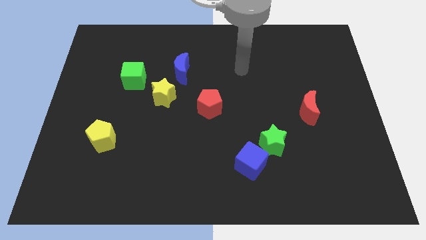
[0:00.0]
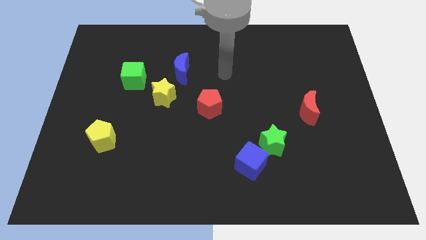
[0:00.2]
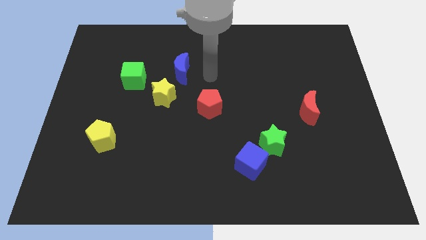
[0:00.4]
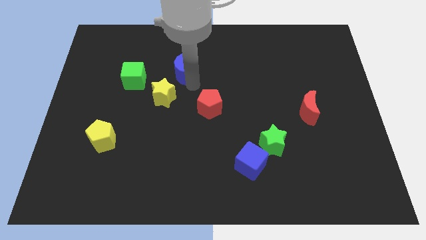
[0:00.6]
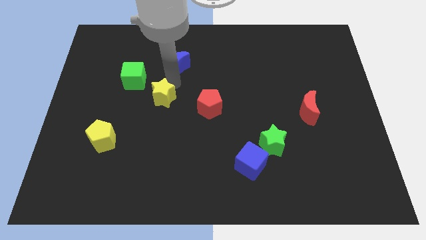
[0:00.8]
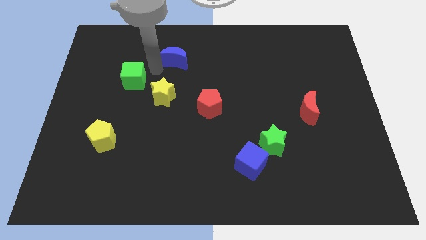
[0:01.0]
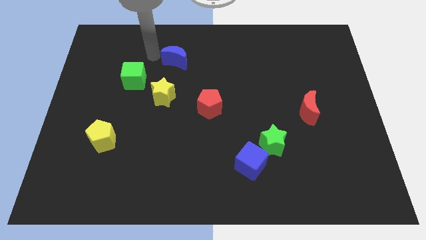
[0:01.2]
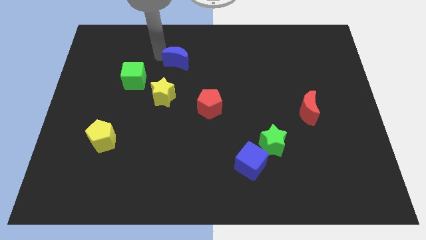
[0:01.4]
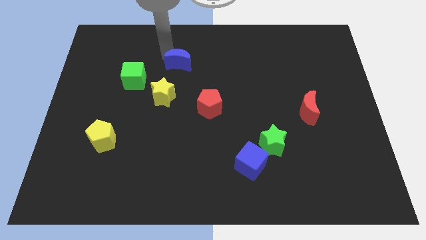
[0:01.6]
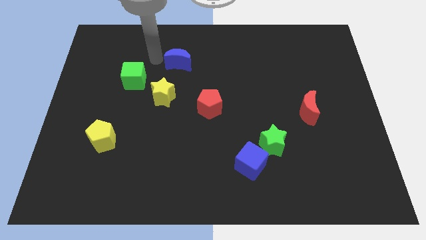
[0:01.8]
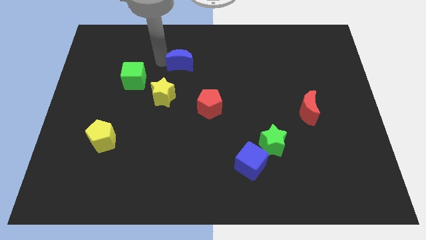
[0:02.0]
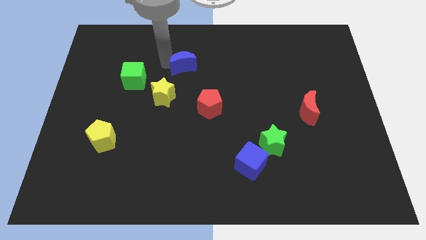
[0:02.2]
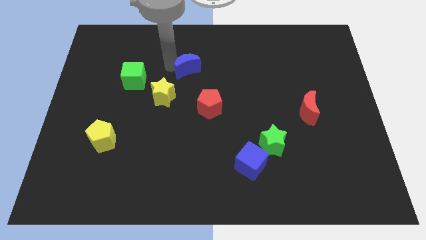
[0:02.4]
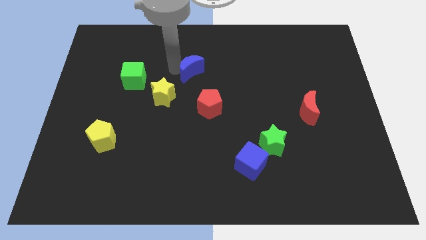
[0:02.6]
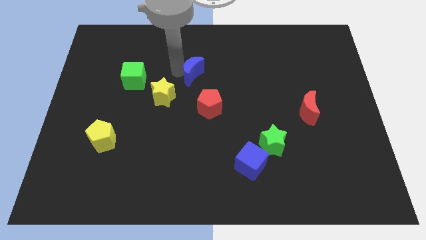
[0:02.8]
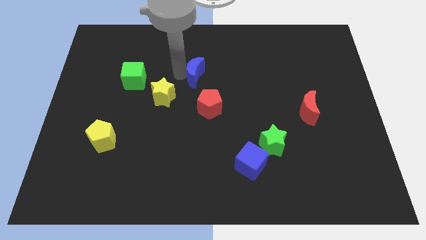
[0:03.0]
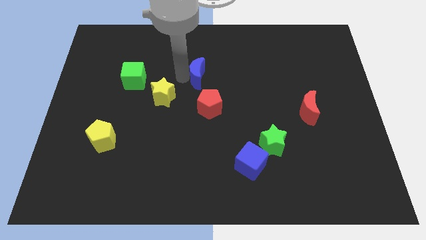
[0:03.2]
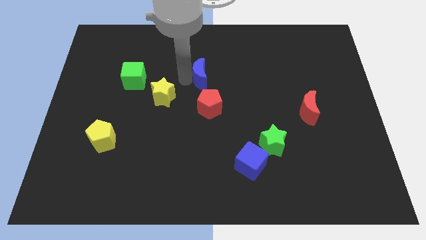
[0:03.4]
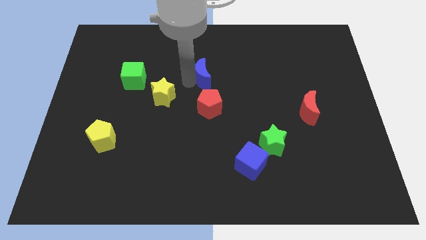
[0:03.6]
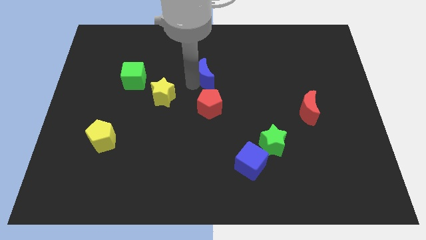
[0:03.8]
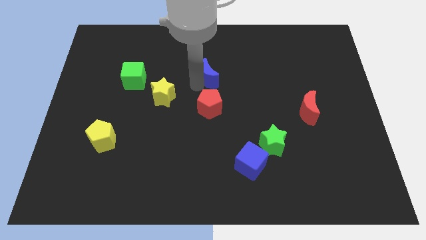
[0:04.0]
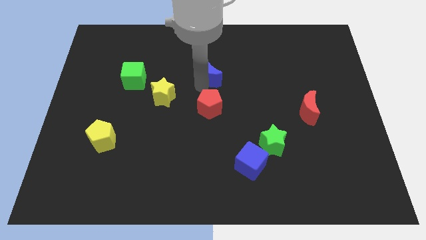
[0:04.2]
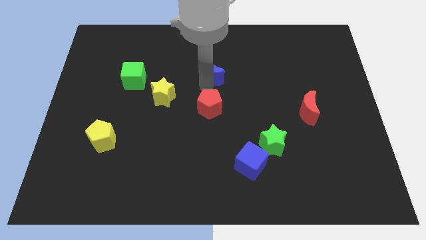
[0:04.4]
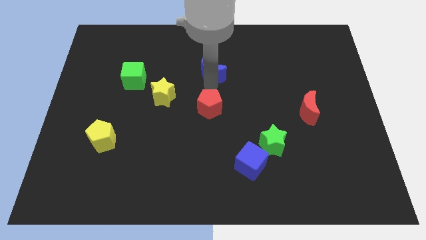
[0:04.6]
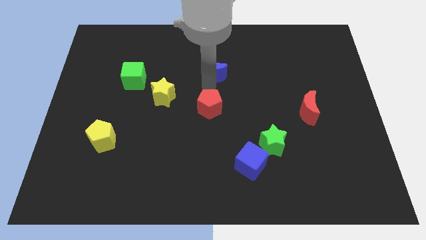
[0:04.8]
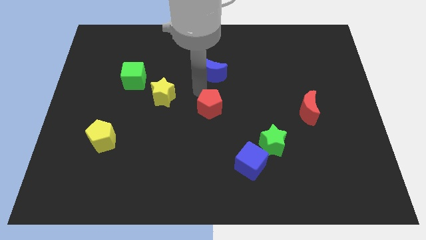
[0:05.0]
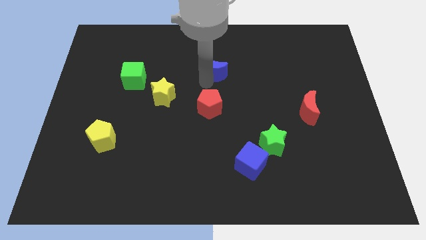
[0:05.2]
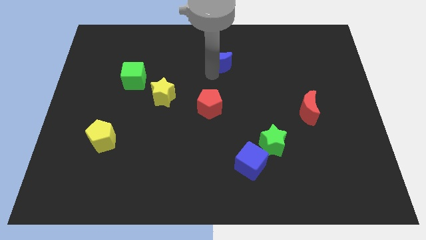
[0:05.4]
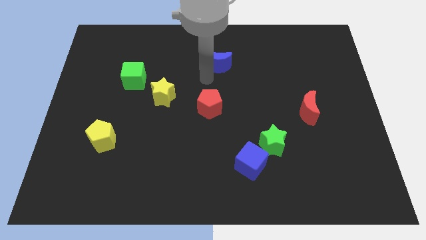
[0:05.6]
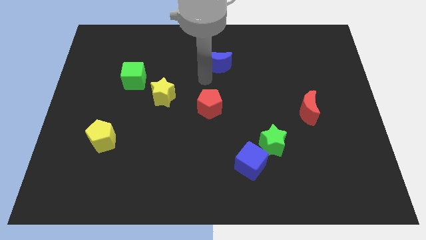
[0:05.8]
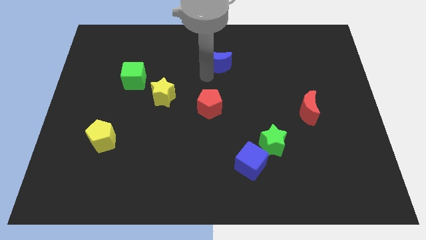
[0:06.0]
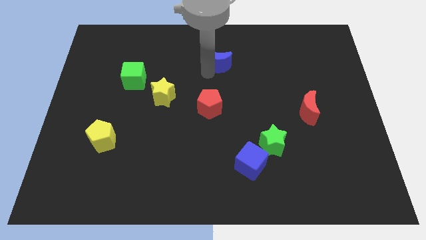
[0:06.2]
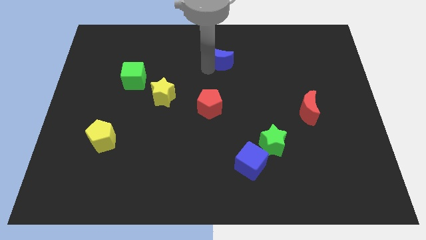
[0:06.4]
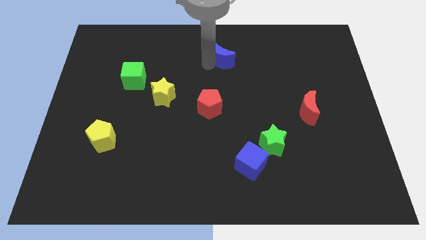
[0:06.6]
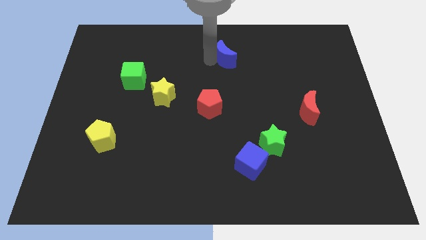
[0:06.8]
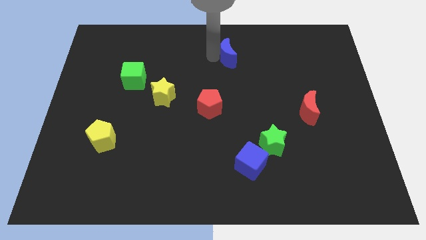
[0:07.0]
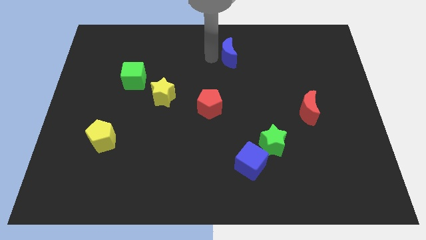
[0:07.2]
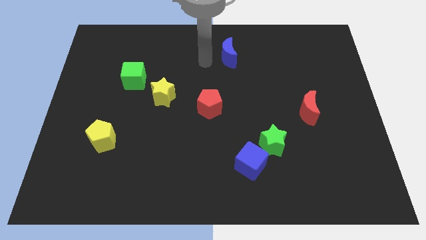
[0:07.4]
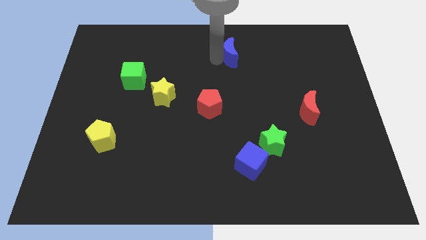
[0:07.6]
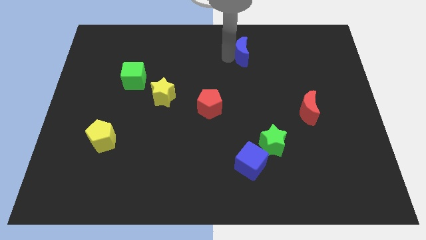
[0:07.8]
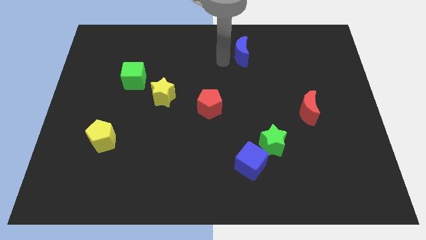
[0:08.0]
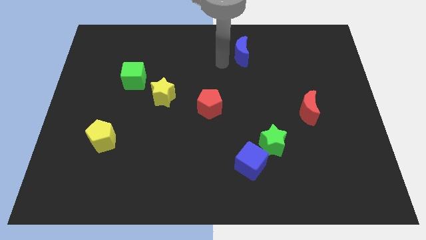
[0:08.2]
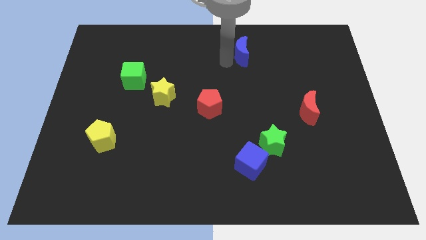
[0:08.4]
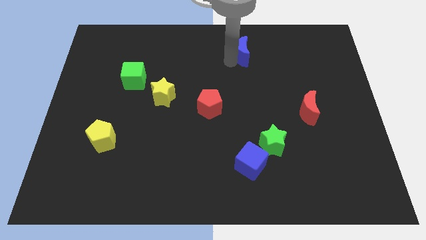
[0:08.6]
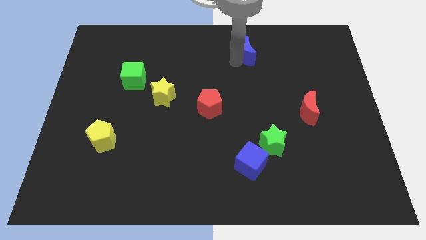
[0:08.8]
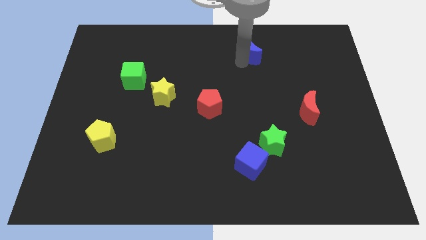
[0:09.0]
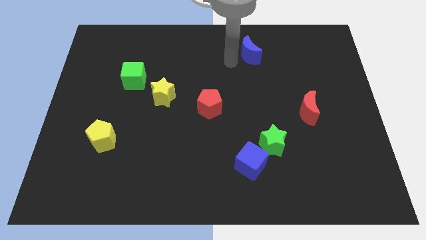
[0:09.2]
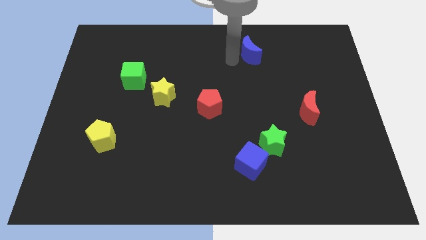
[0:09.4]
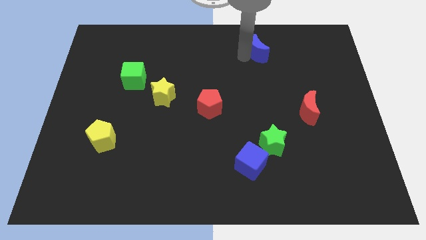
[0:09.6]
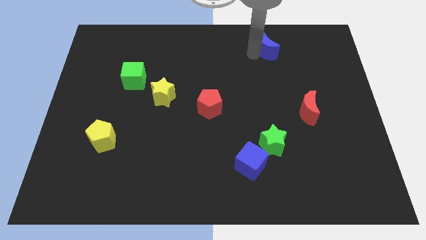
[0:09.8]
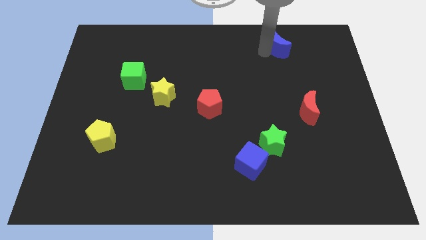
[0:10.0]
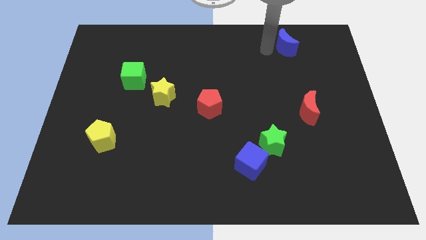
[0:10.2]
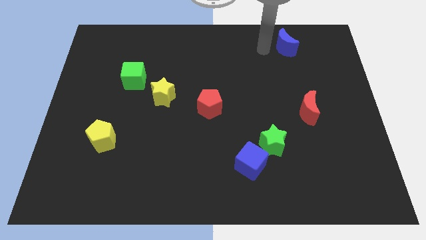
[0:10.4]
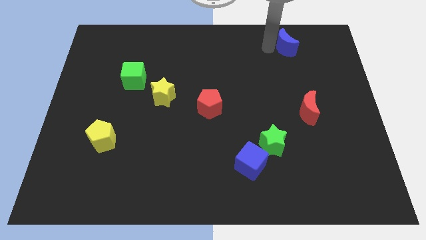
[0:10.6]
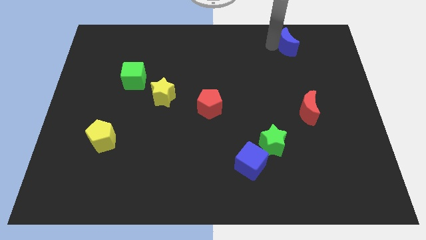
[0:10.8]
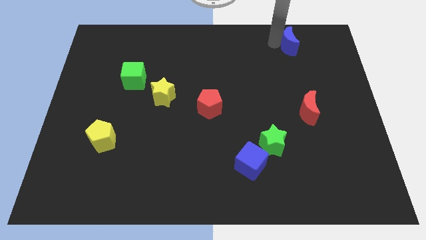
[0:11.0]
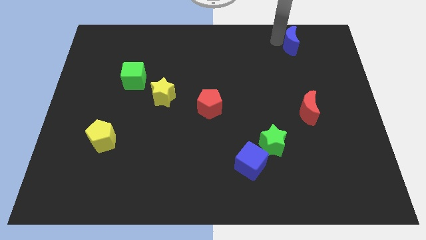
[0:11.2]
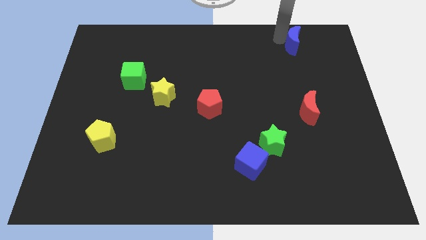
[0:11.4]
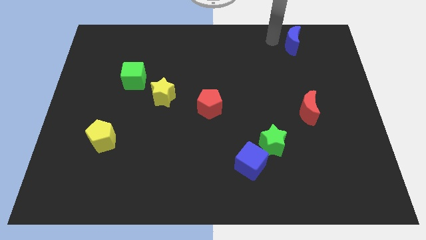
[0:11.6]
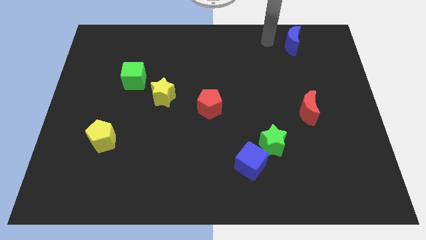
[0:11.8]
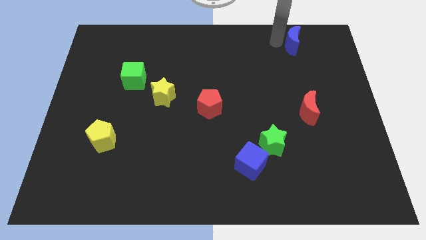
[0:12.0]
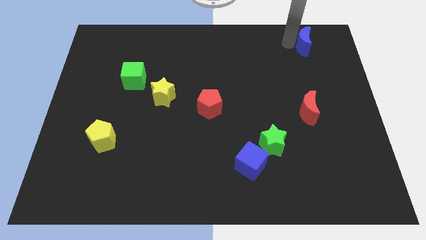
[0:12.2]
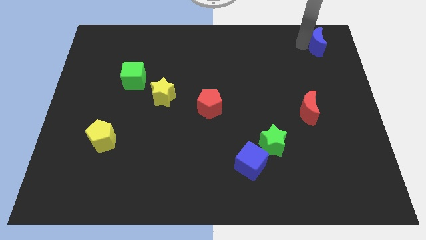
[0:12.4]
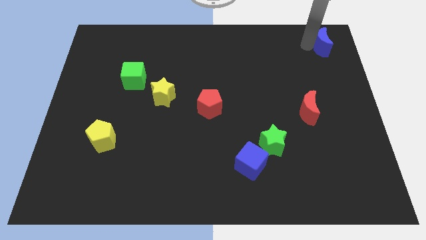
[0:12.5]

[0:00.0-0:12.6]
push the blue moon to the top right corner
